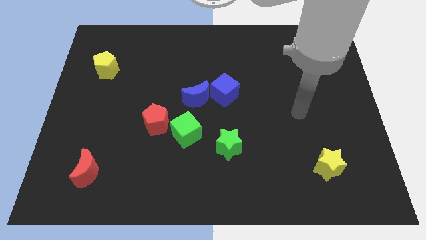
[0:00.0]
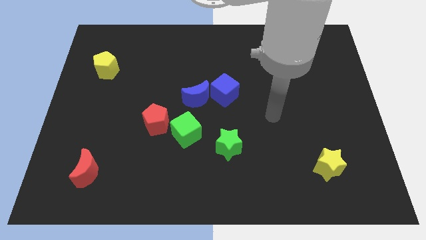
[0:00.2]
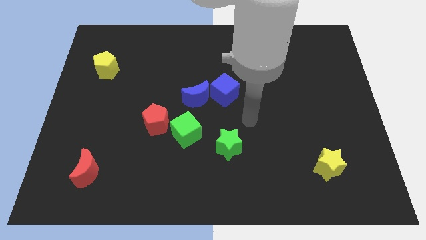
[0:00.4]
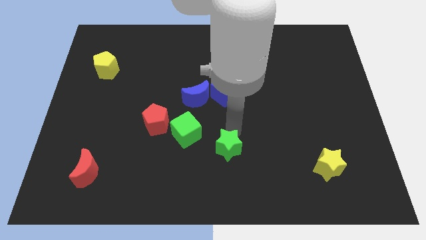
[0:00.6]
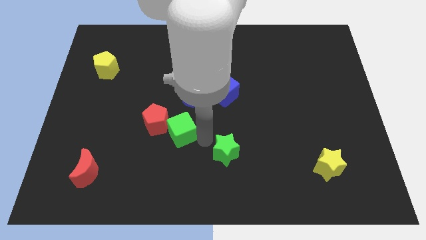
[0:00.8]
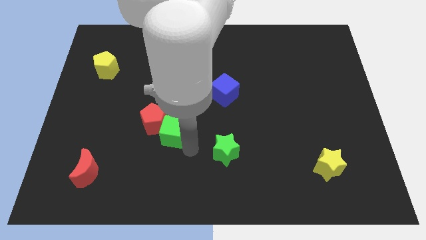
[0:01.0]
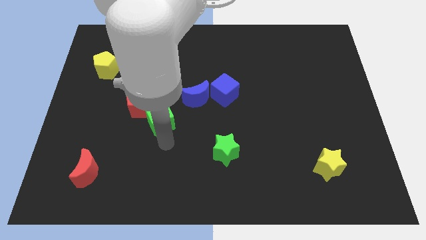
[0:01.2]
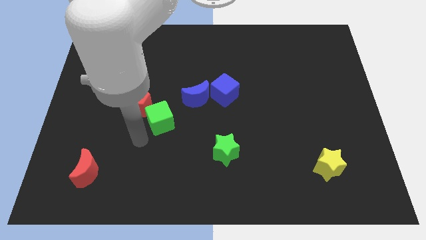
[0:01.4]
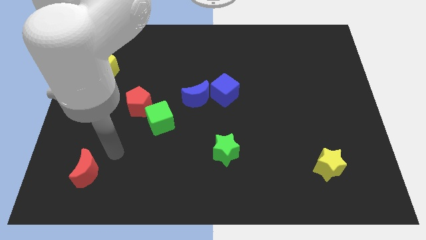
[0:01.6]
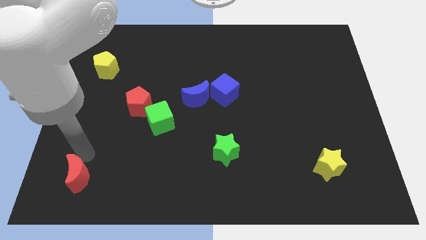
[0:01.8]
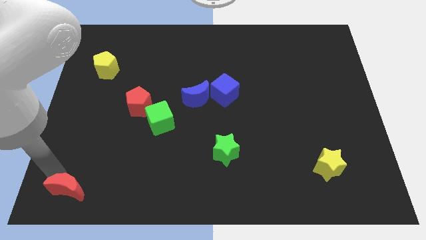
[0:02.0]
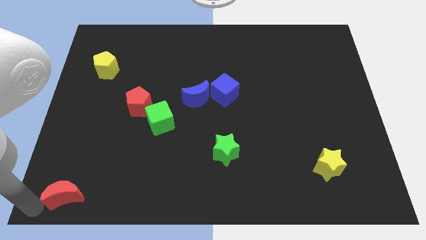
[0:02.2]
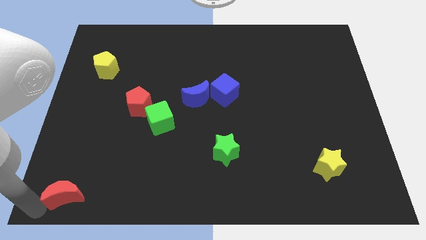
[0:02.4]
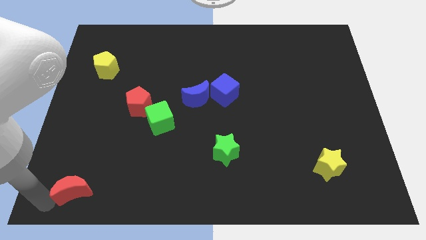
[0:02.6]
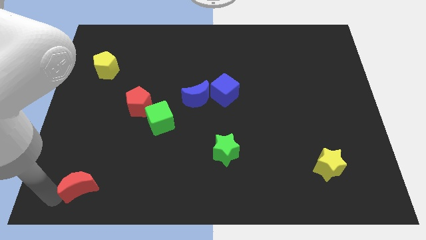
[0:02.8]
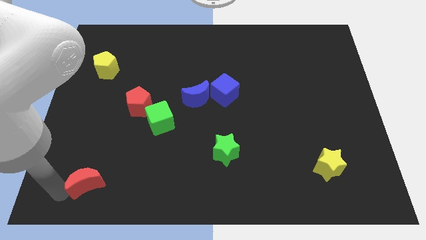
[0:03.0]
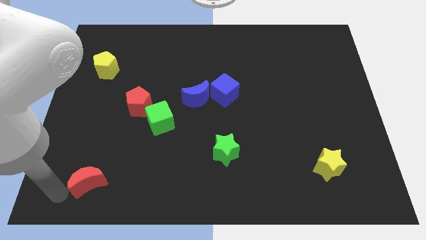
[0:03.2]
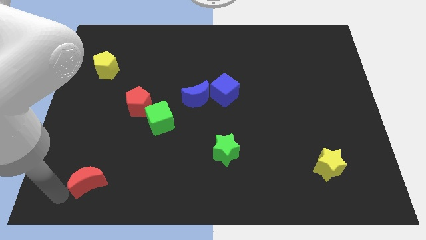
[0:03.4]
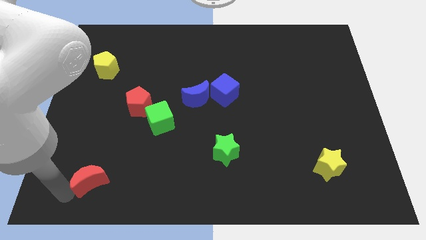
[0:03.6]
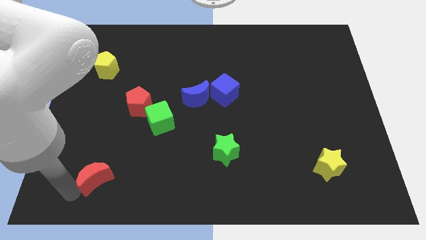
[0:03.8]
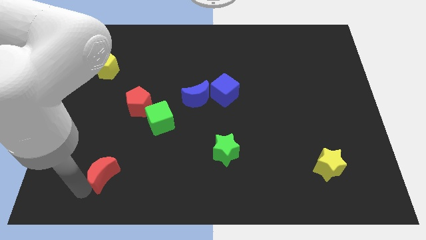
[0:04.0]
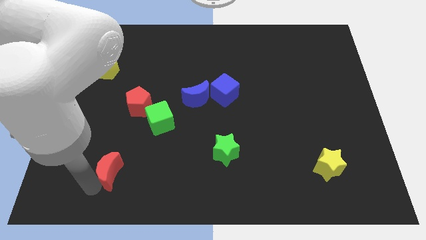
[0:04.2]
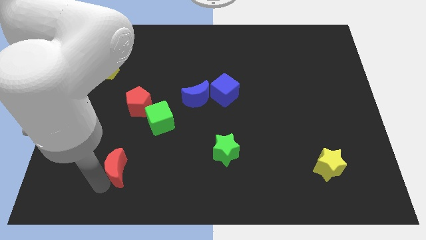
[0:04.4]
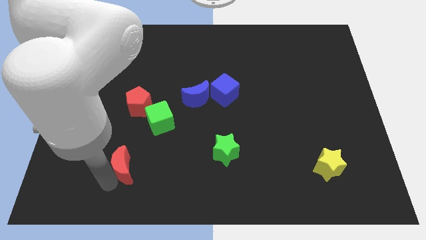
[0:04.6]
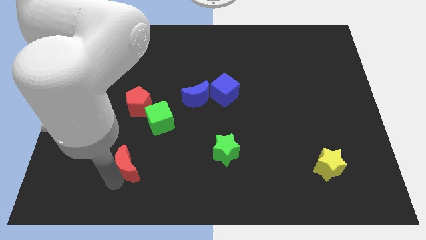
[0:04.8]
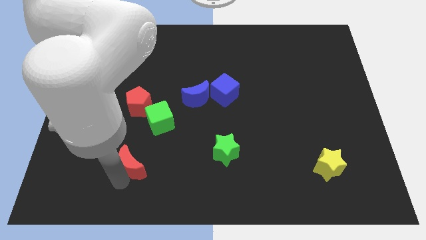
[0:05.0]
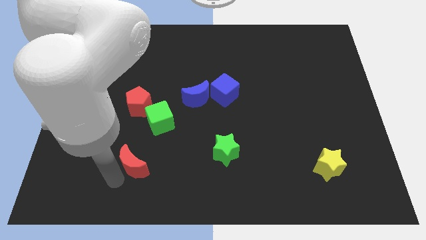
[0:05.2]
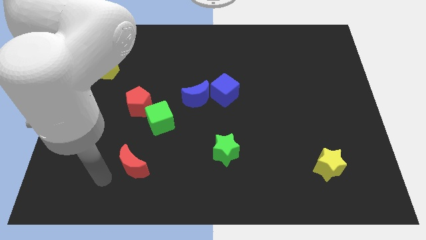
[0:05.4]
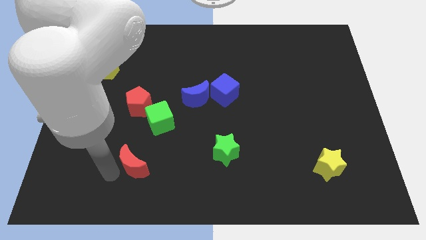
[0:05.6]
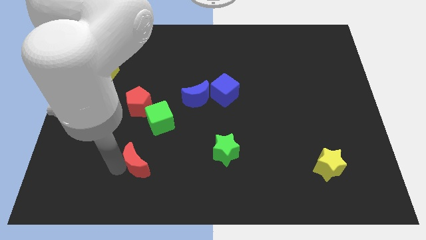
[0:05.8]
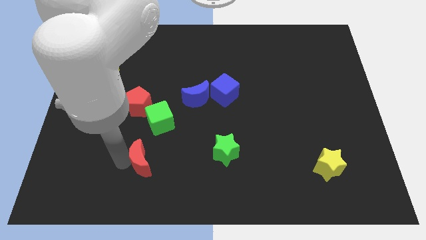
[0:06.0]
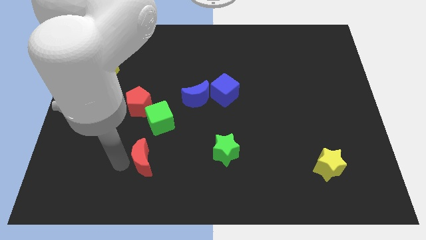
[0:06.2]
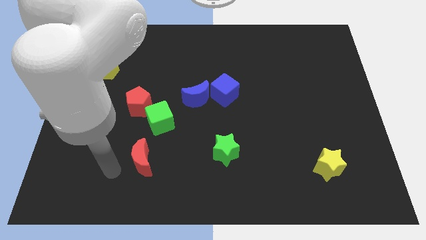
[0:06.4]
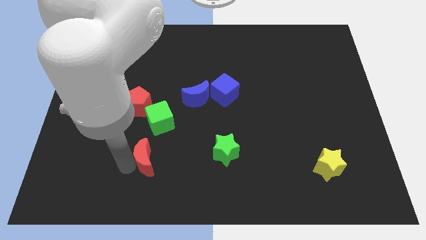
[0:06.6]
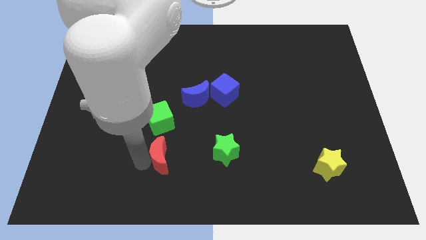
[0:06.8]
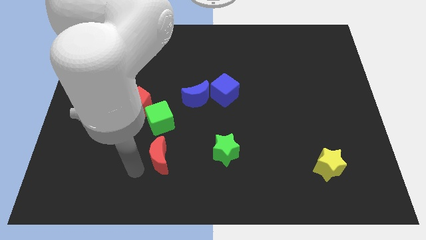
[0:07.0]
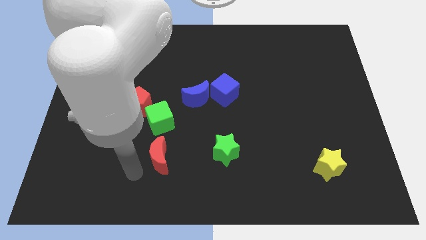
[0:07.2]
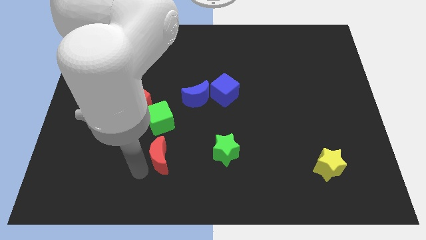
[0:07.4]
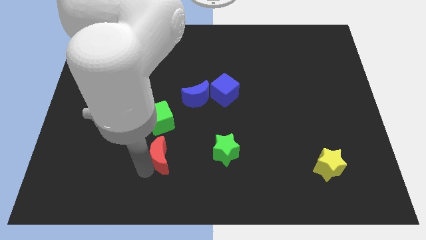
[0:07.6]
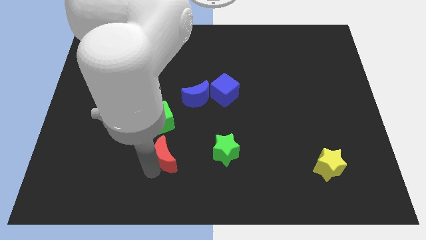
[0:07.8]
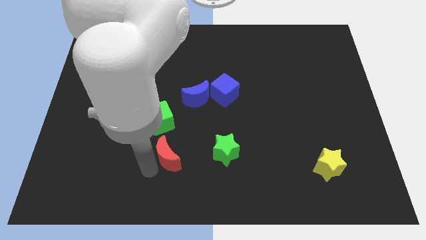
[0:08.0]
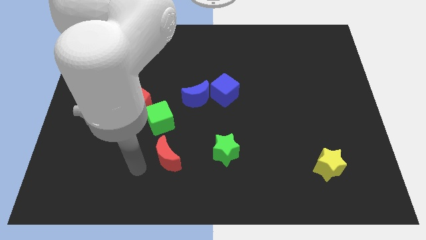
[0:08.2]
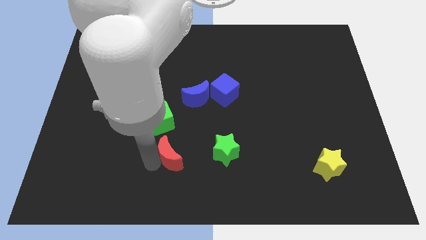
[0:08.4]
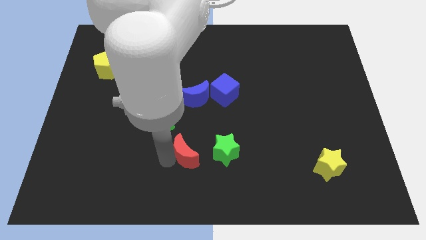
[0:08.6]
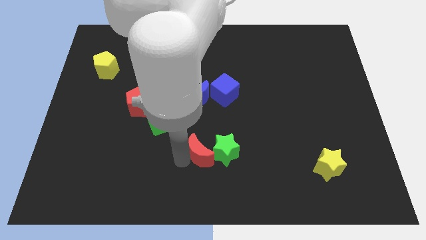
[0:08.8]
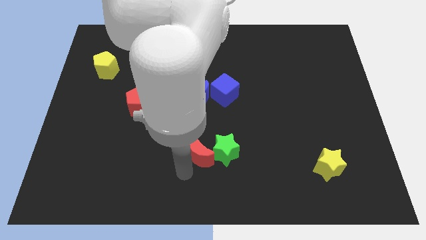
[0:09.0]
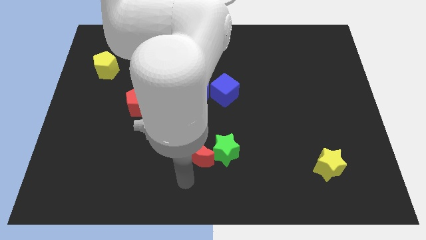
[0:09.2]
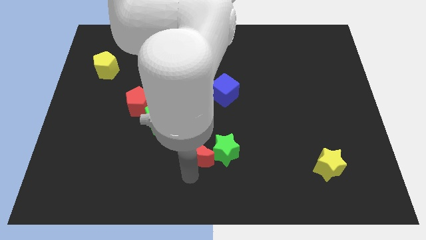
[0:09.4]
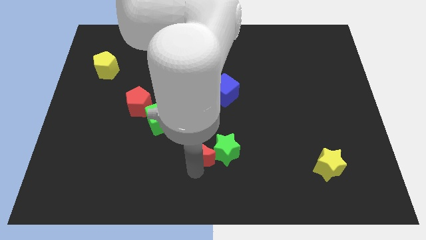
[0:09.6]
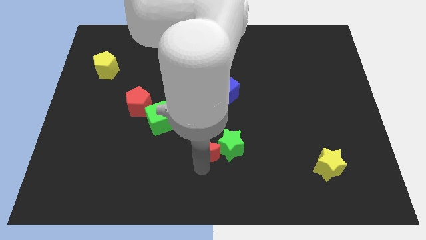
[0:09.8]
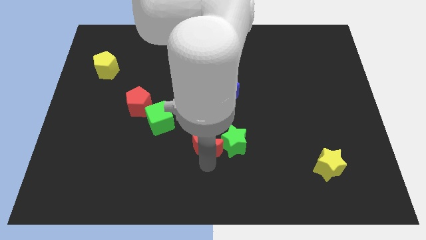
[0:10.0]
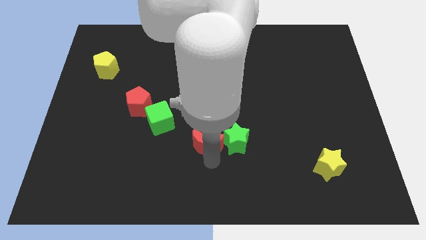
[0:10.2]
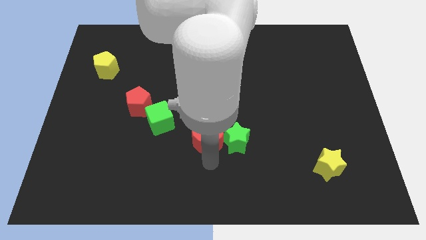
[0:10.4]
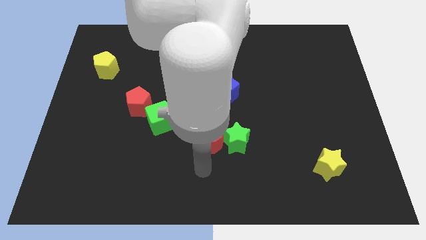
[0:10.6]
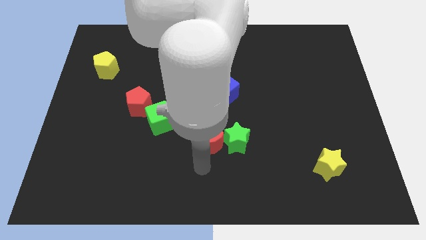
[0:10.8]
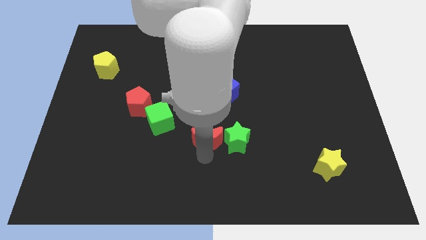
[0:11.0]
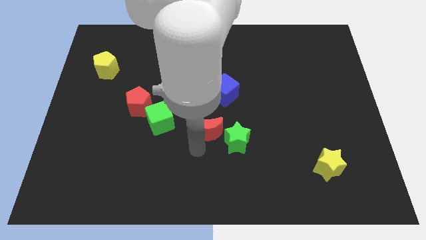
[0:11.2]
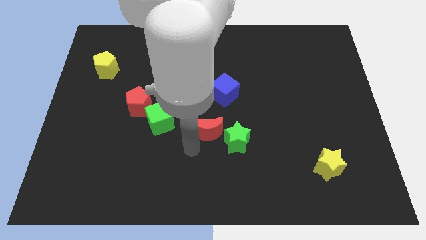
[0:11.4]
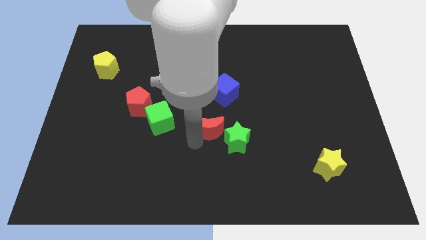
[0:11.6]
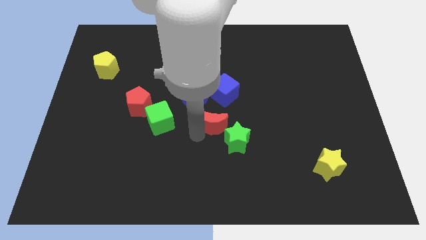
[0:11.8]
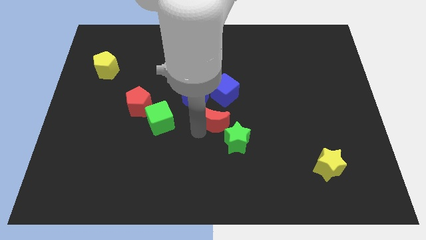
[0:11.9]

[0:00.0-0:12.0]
put the red moon to the top side of the green star

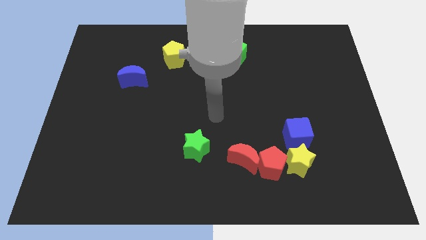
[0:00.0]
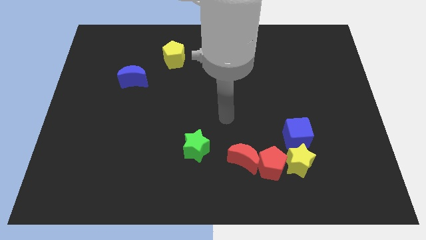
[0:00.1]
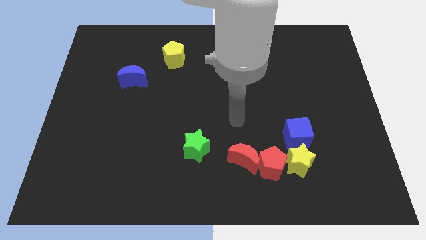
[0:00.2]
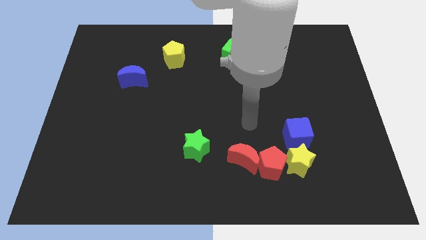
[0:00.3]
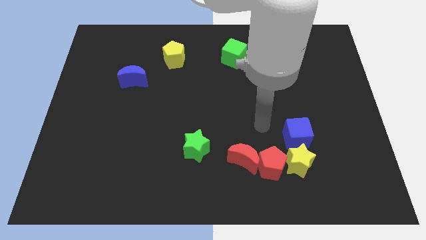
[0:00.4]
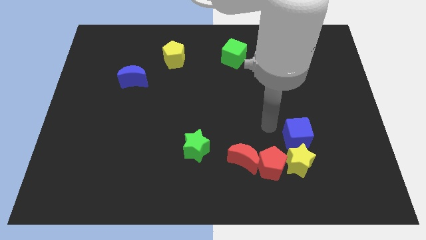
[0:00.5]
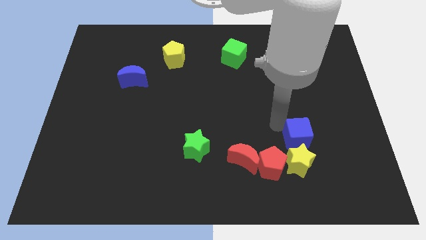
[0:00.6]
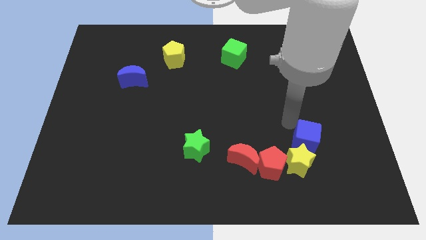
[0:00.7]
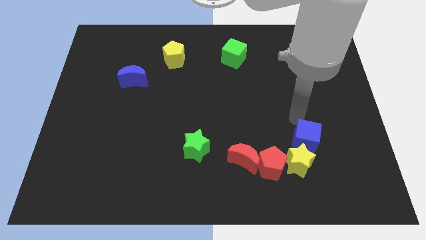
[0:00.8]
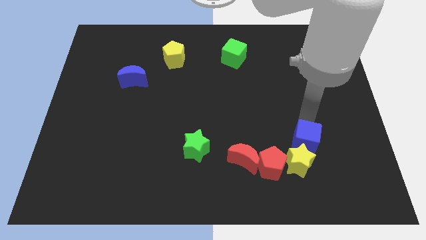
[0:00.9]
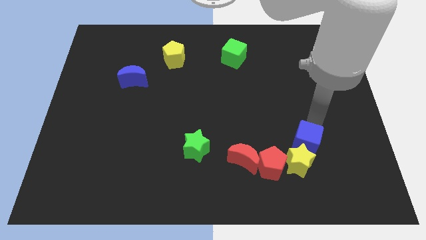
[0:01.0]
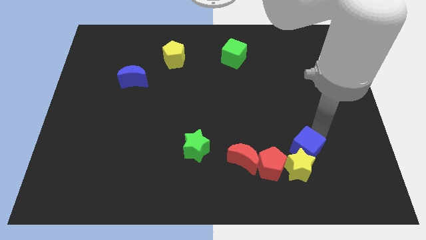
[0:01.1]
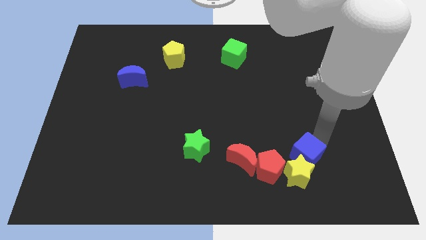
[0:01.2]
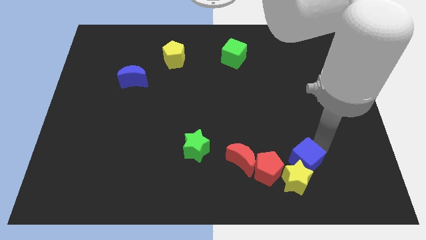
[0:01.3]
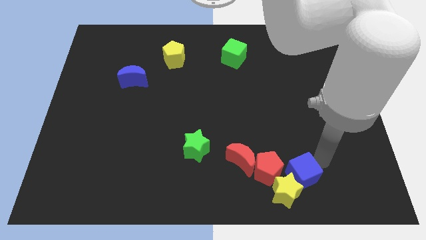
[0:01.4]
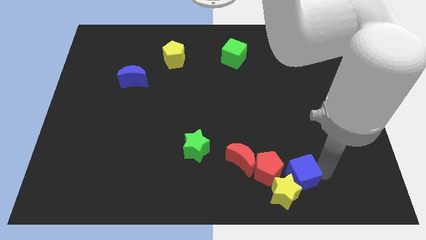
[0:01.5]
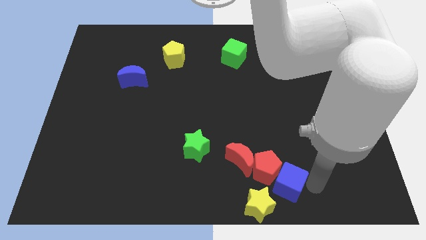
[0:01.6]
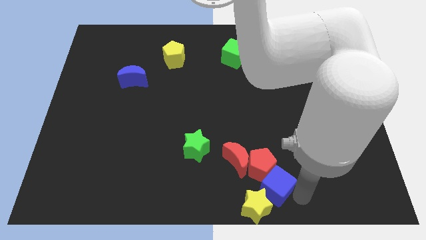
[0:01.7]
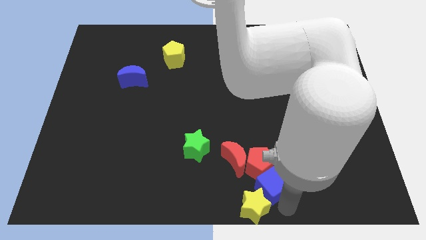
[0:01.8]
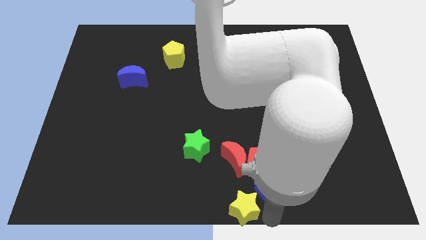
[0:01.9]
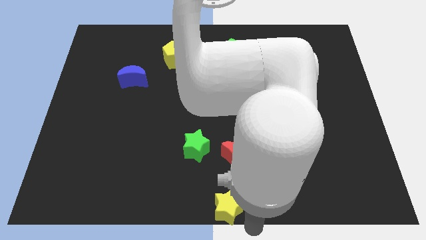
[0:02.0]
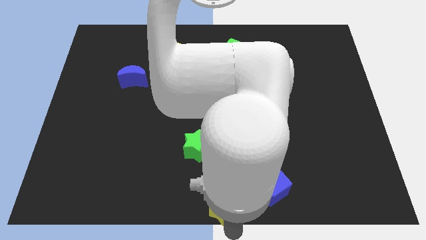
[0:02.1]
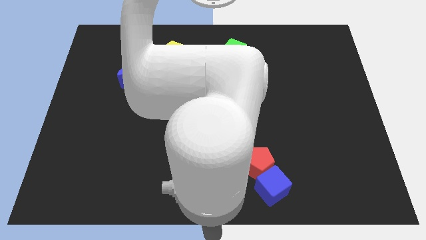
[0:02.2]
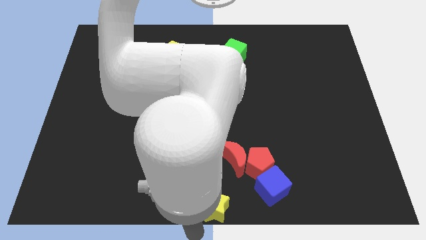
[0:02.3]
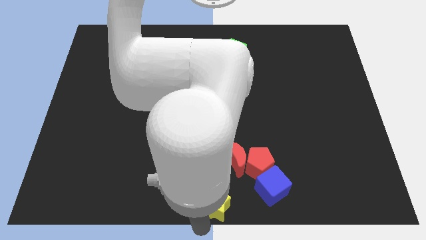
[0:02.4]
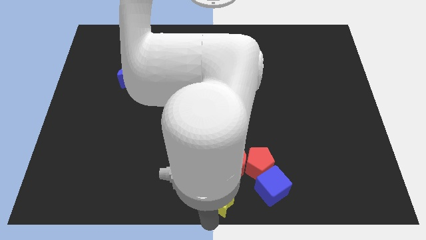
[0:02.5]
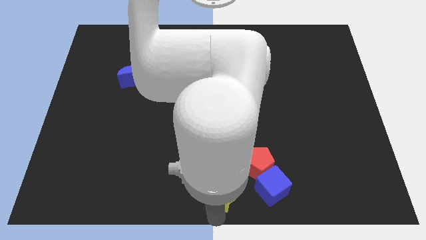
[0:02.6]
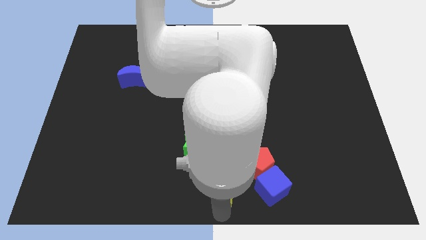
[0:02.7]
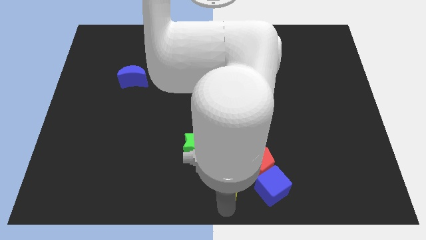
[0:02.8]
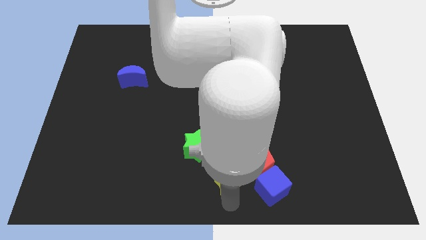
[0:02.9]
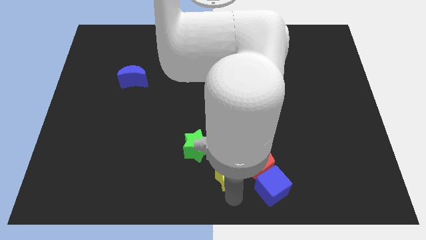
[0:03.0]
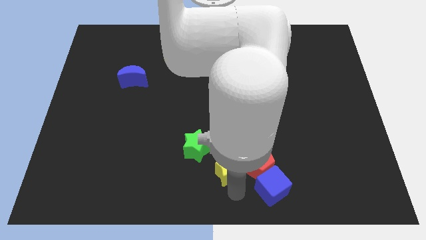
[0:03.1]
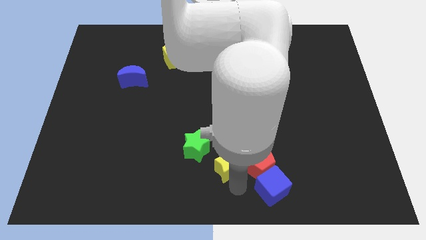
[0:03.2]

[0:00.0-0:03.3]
put the yellow star just right of the green star
